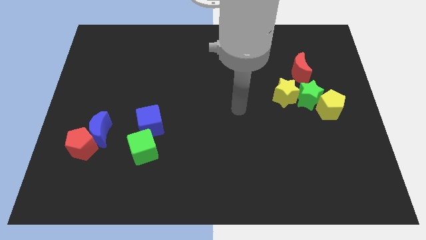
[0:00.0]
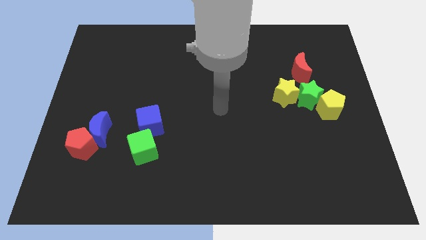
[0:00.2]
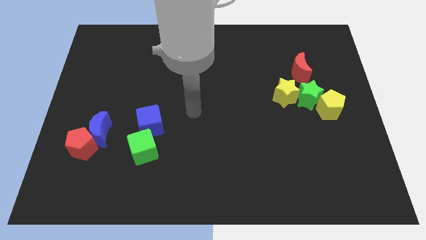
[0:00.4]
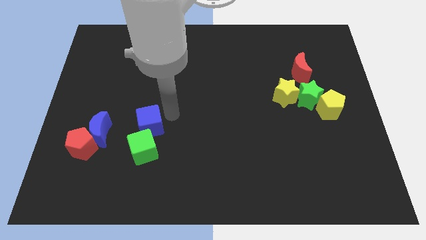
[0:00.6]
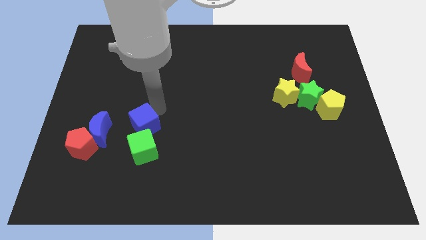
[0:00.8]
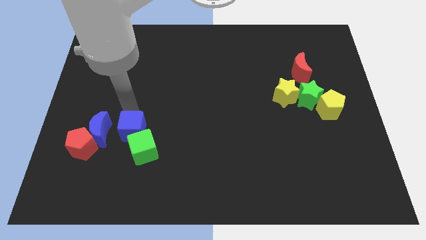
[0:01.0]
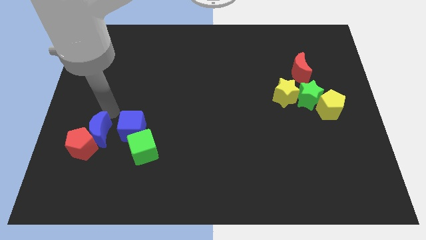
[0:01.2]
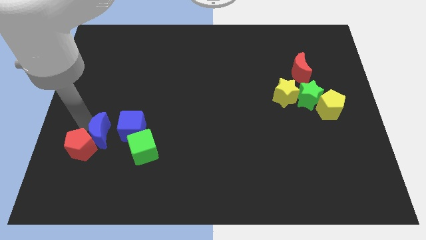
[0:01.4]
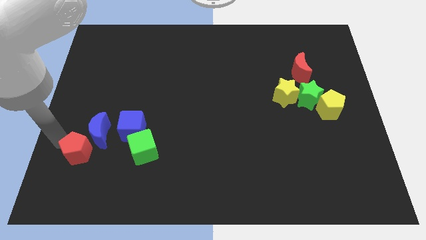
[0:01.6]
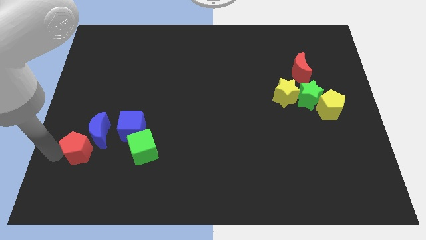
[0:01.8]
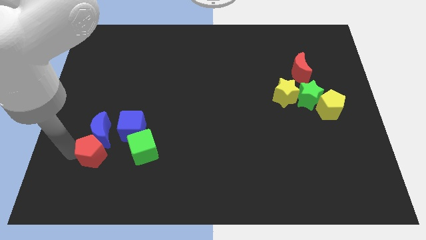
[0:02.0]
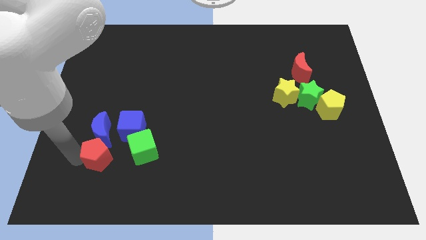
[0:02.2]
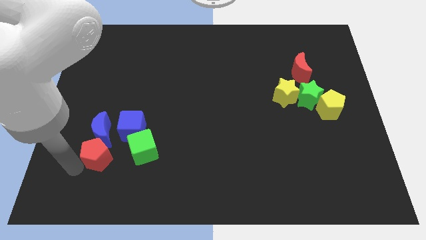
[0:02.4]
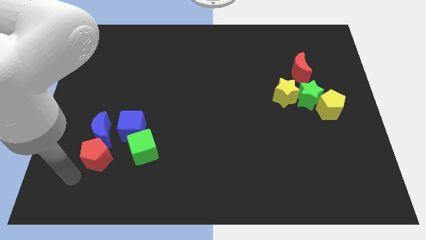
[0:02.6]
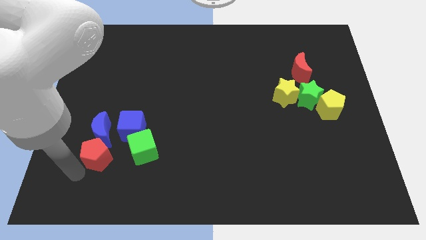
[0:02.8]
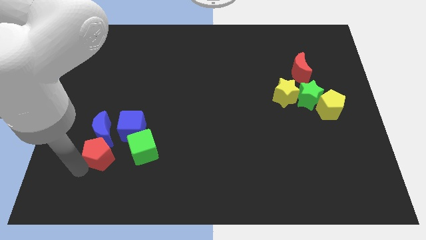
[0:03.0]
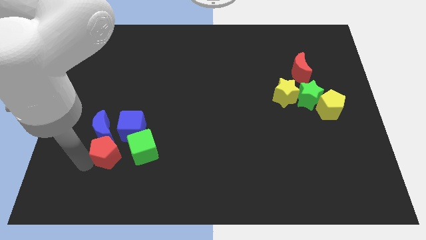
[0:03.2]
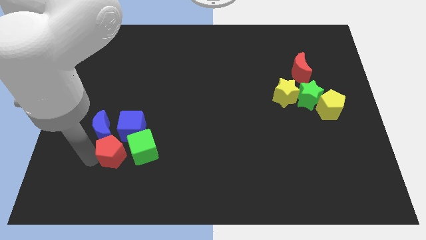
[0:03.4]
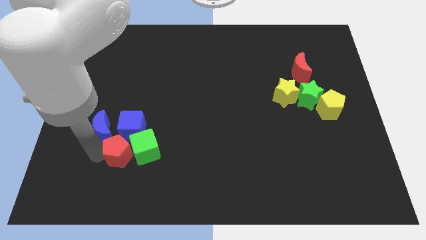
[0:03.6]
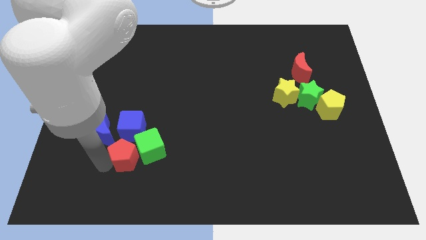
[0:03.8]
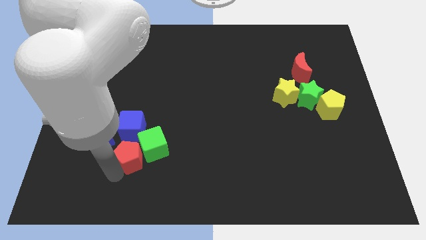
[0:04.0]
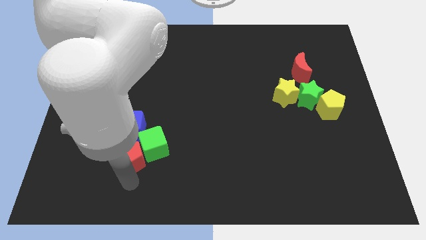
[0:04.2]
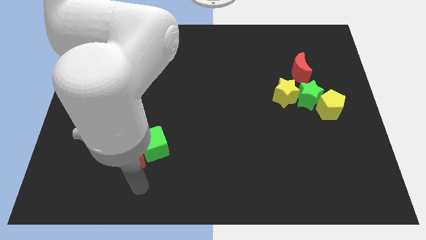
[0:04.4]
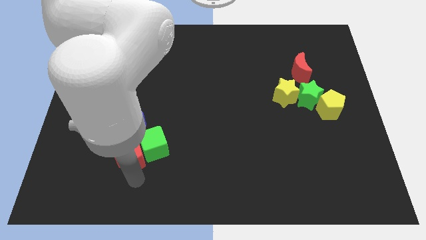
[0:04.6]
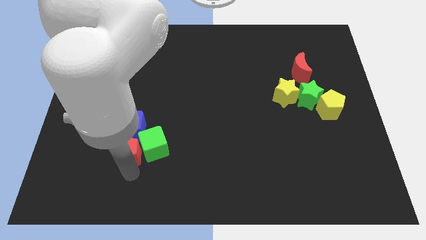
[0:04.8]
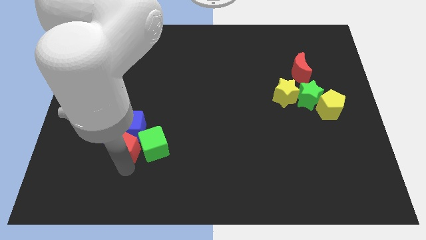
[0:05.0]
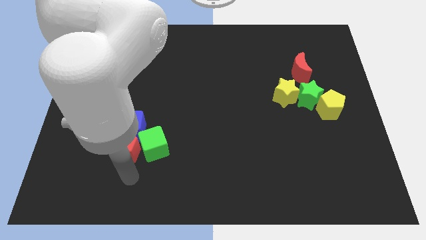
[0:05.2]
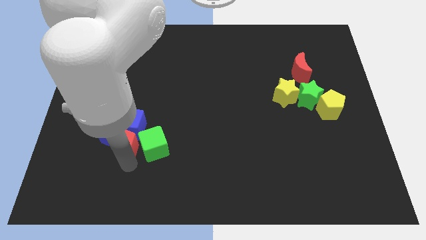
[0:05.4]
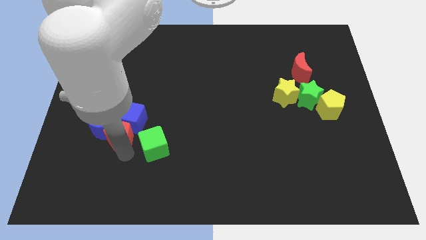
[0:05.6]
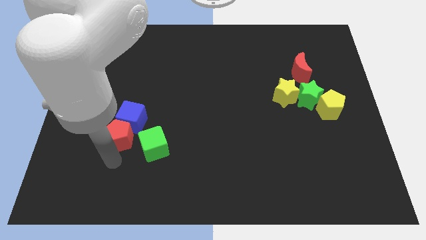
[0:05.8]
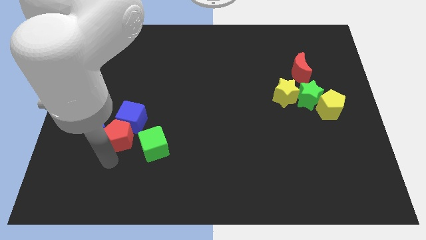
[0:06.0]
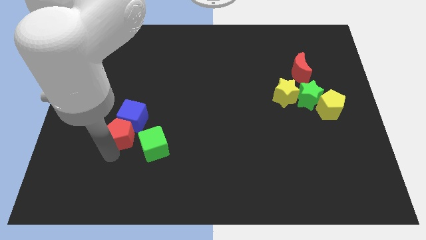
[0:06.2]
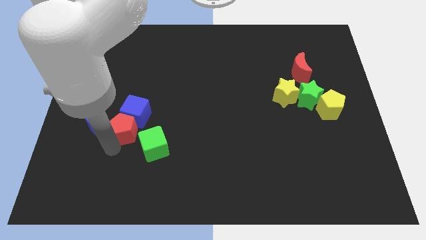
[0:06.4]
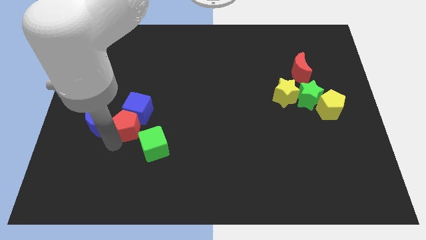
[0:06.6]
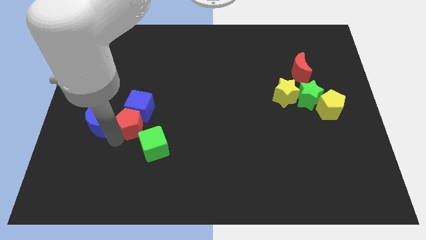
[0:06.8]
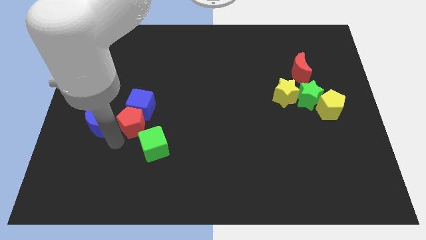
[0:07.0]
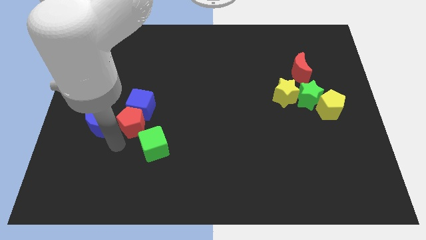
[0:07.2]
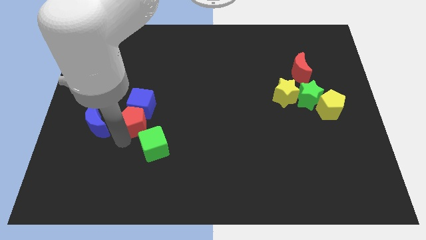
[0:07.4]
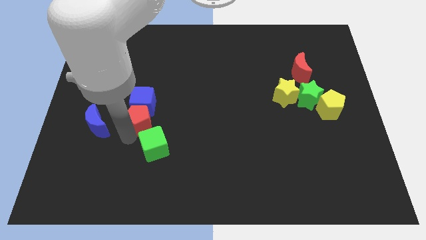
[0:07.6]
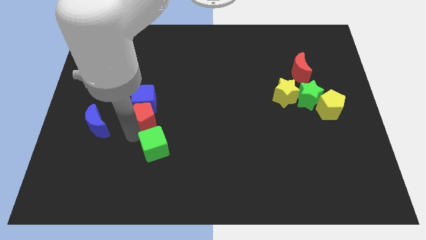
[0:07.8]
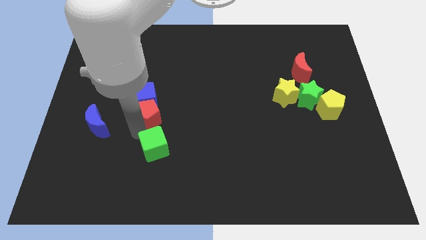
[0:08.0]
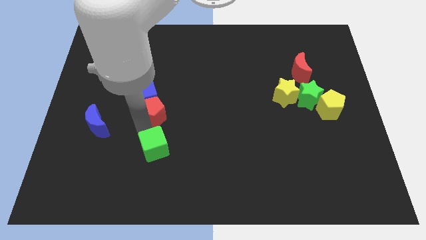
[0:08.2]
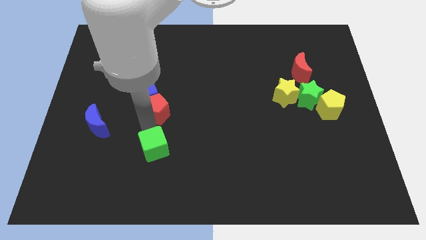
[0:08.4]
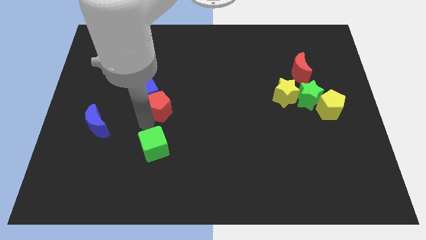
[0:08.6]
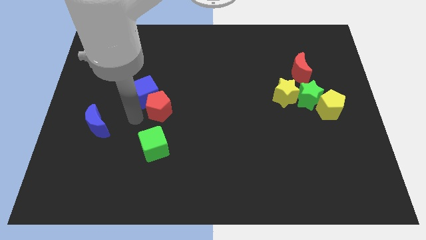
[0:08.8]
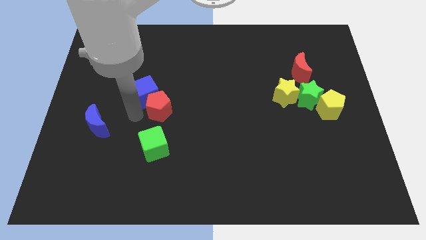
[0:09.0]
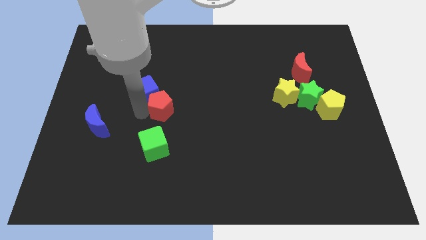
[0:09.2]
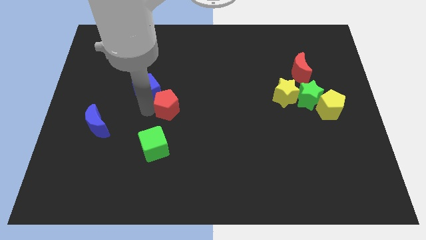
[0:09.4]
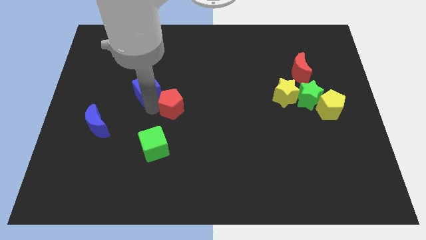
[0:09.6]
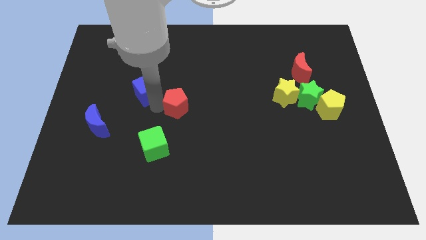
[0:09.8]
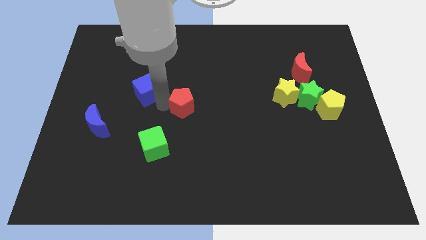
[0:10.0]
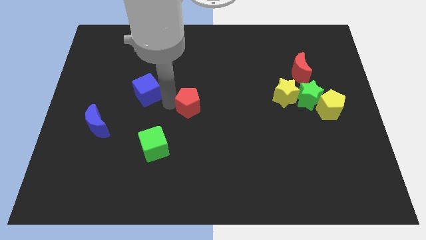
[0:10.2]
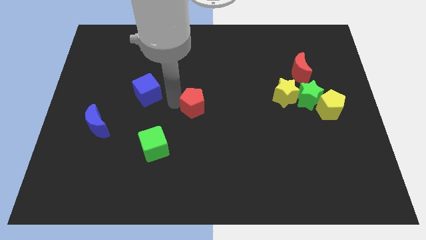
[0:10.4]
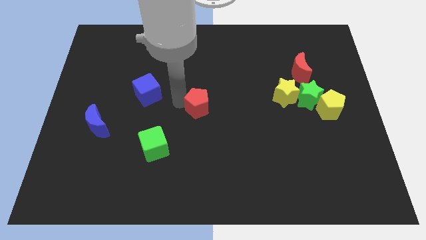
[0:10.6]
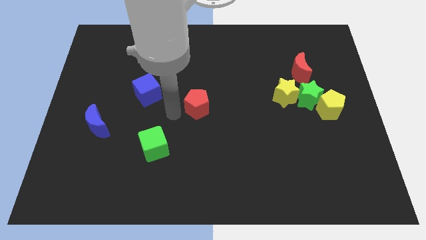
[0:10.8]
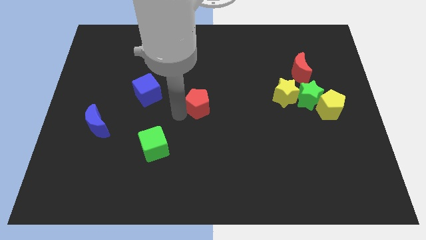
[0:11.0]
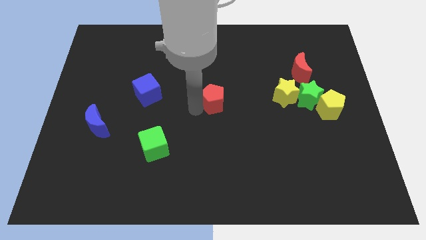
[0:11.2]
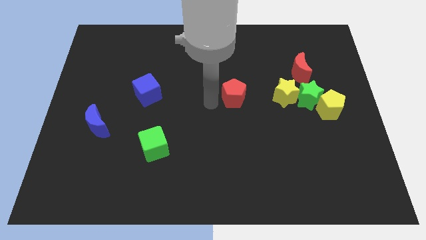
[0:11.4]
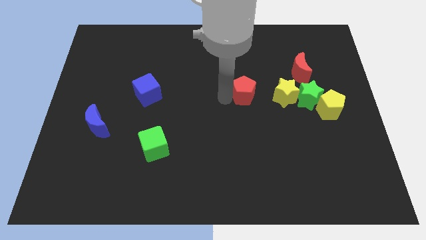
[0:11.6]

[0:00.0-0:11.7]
push the red pentagon just left of the green star

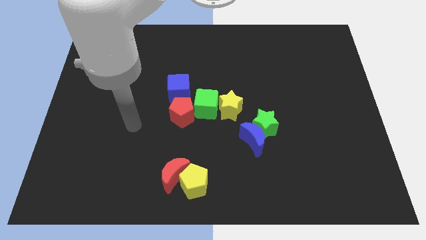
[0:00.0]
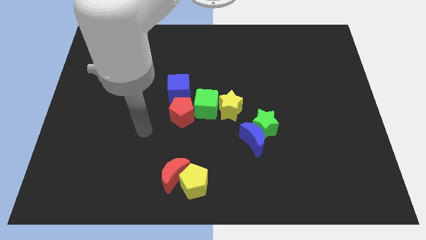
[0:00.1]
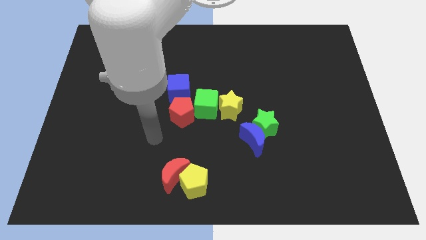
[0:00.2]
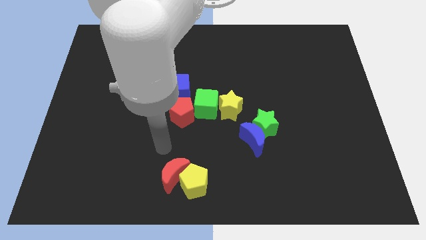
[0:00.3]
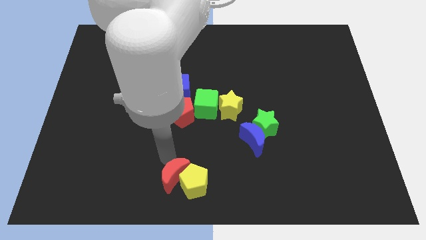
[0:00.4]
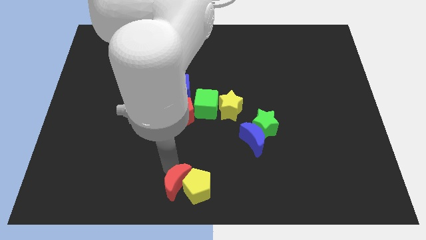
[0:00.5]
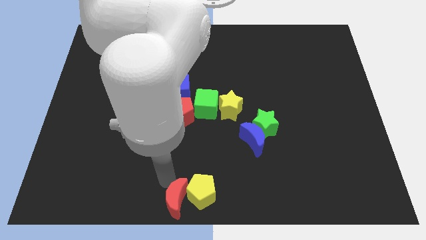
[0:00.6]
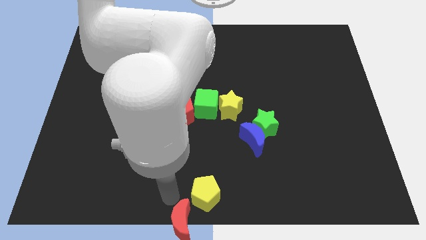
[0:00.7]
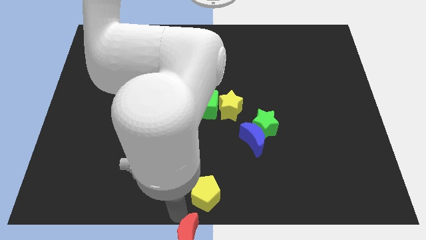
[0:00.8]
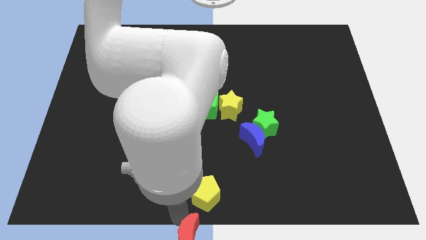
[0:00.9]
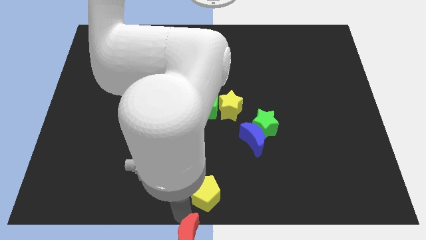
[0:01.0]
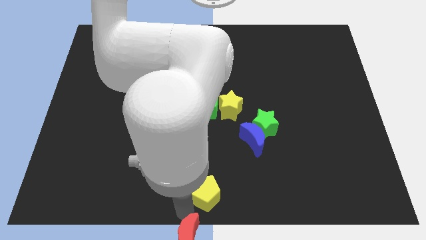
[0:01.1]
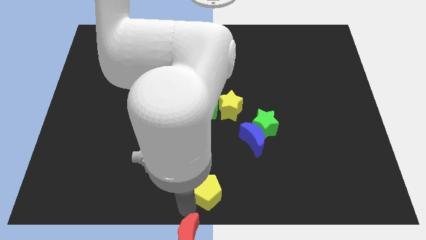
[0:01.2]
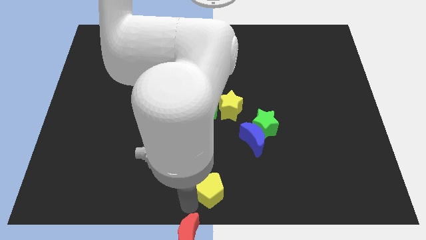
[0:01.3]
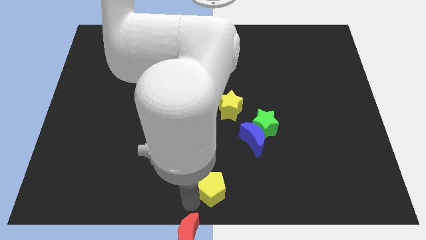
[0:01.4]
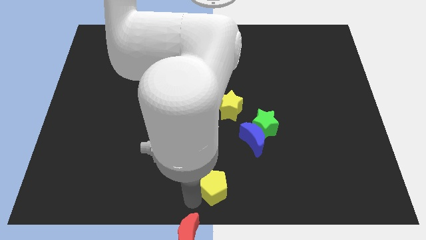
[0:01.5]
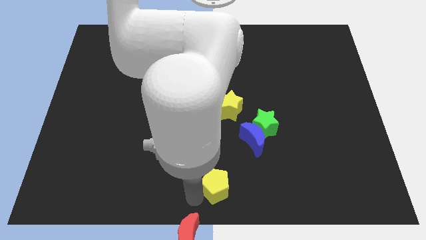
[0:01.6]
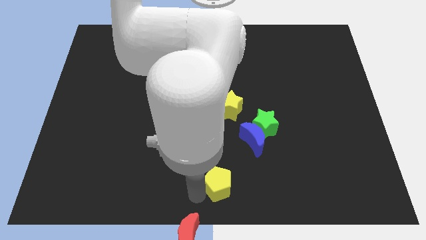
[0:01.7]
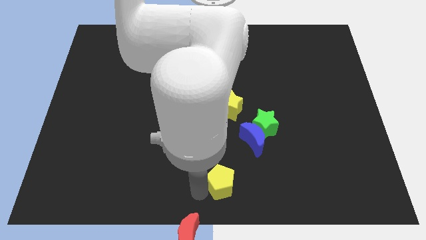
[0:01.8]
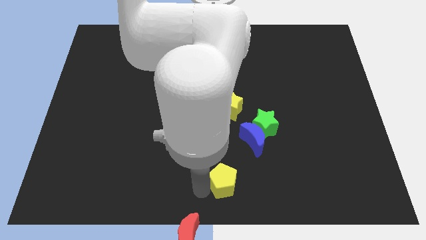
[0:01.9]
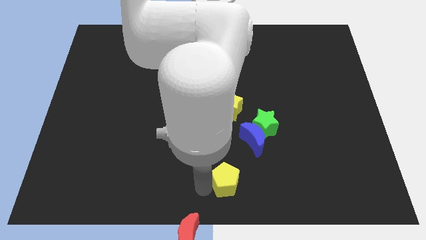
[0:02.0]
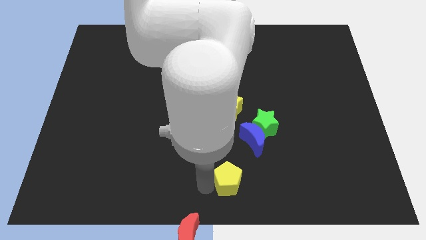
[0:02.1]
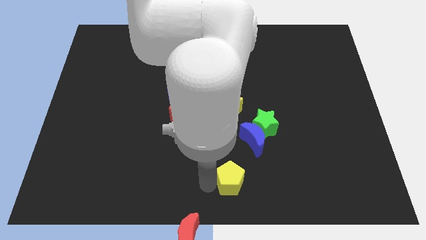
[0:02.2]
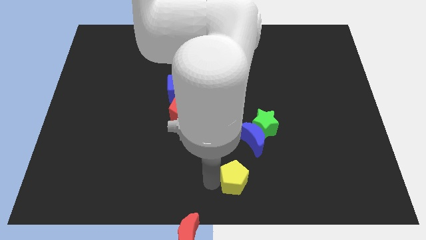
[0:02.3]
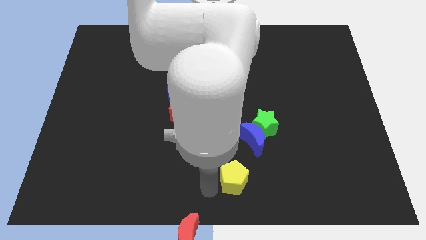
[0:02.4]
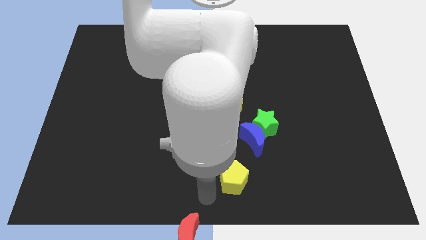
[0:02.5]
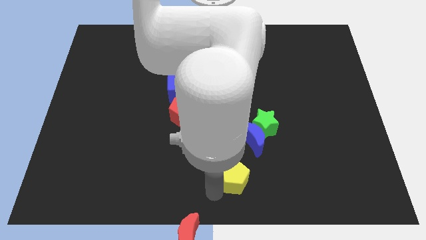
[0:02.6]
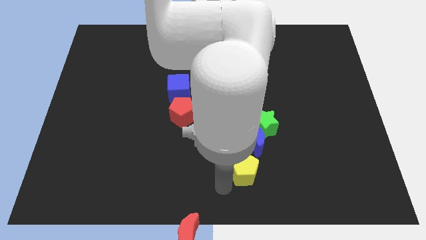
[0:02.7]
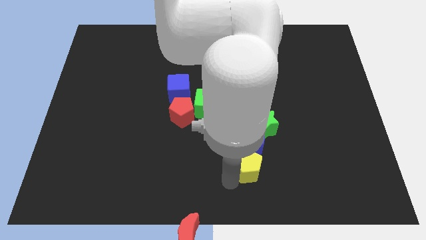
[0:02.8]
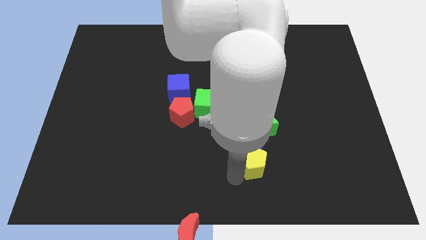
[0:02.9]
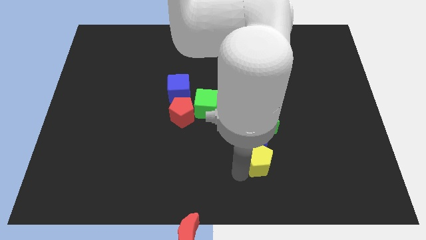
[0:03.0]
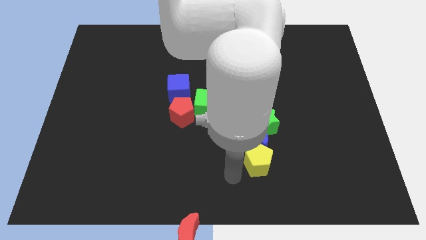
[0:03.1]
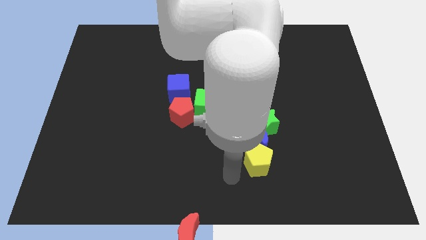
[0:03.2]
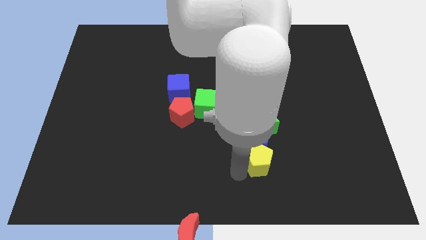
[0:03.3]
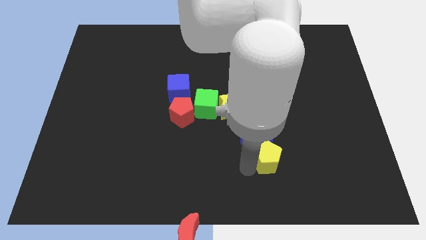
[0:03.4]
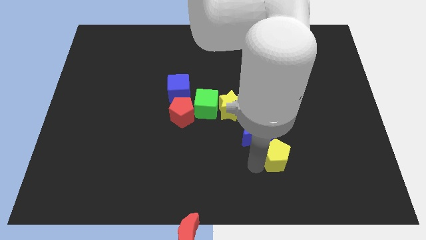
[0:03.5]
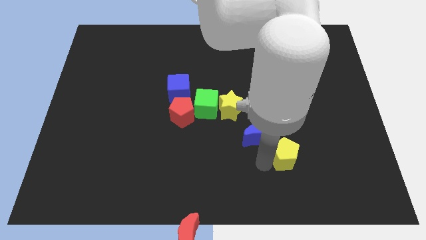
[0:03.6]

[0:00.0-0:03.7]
move the yellow pentagon to the bottom right side of the green star
